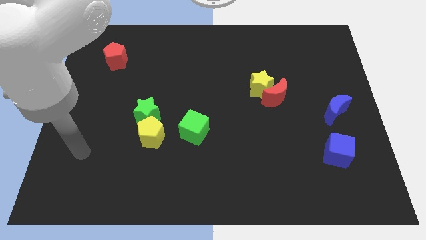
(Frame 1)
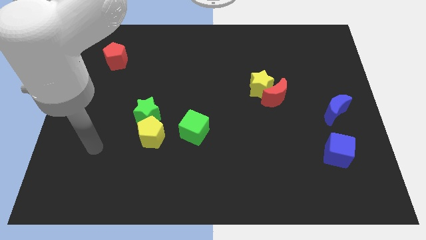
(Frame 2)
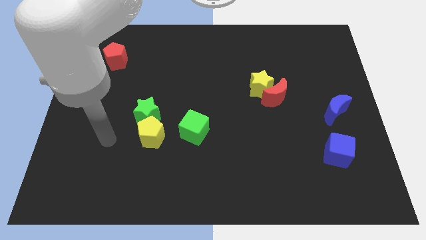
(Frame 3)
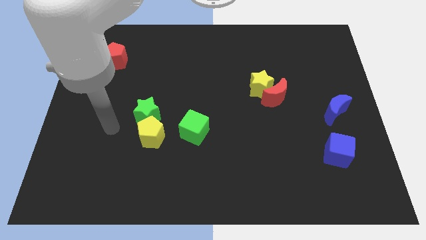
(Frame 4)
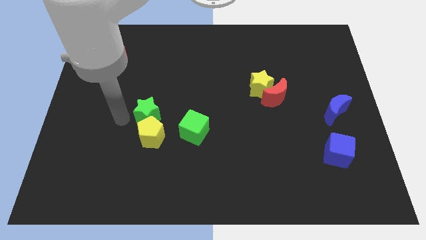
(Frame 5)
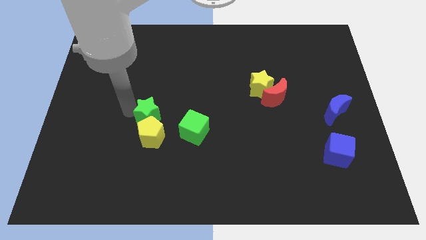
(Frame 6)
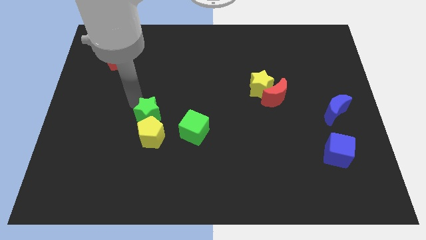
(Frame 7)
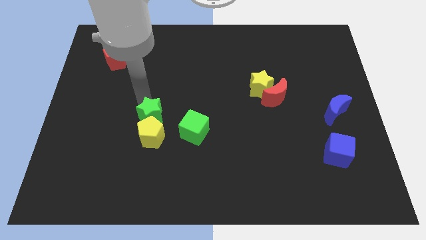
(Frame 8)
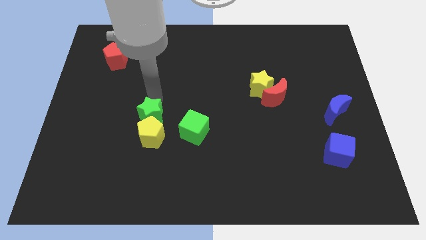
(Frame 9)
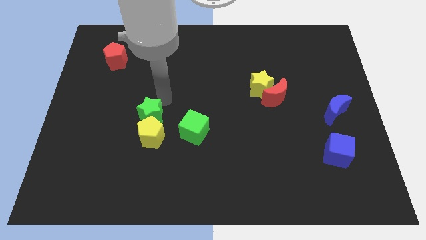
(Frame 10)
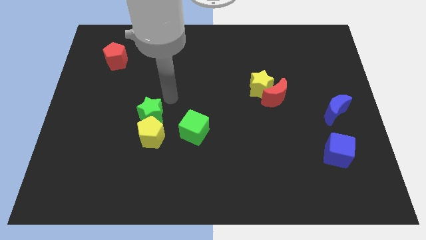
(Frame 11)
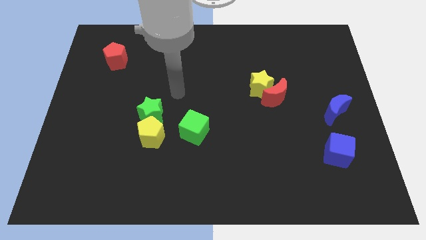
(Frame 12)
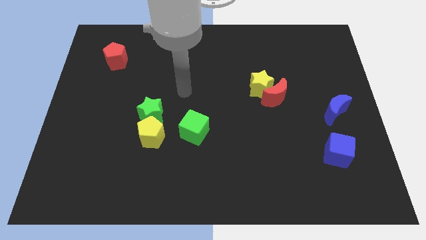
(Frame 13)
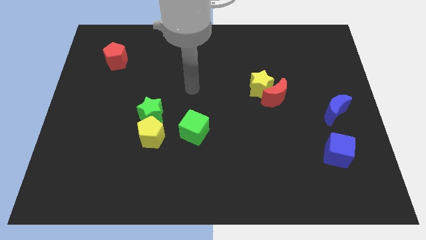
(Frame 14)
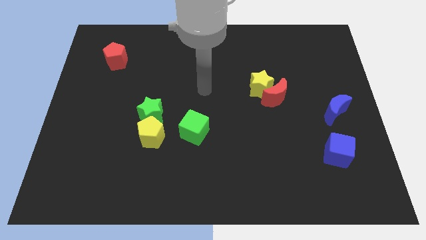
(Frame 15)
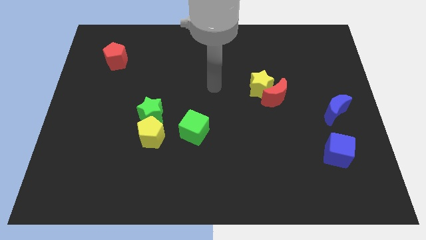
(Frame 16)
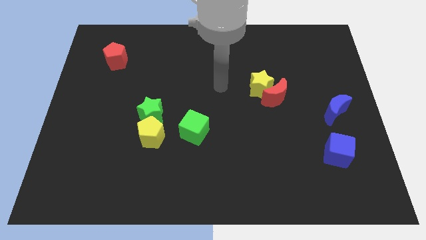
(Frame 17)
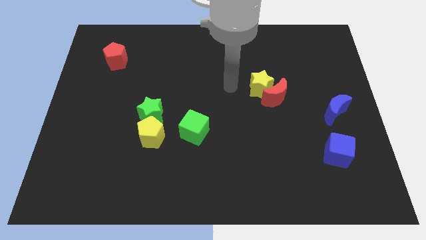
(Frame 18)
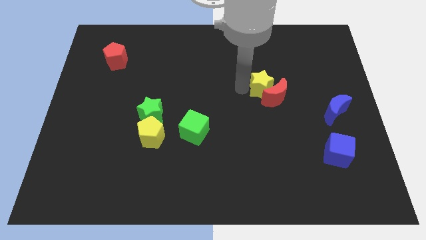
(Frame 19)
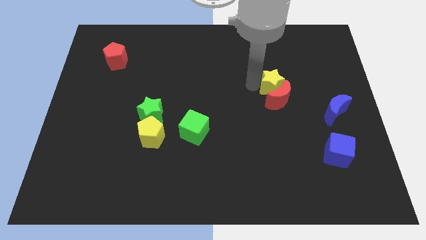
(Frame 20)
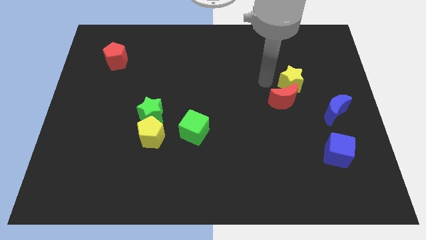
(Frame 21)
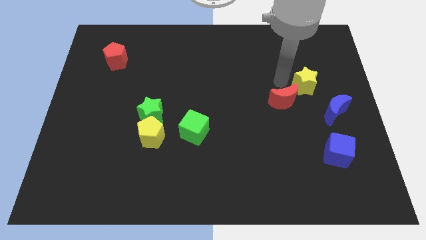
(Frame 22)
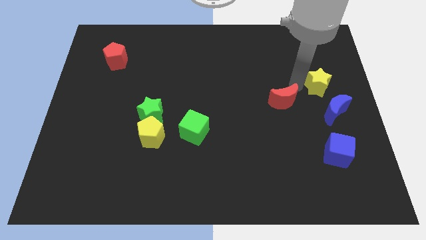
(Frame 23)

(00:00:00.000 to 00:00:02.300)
pull the red moon apart from the yellow star

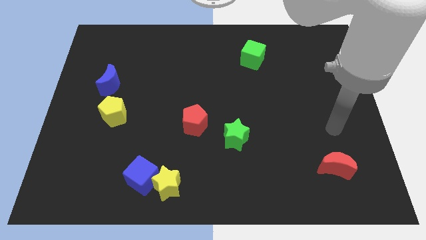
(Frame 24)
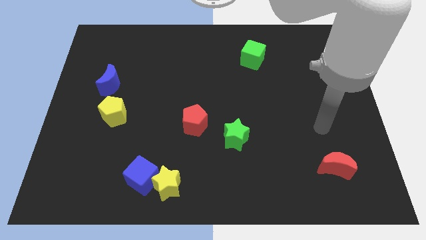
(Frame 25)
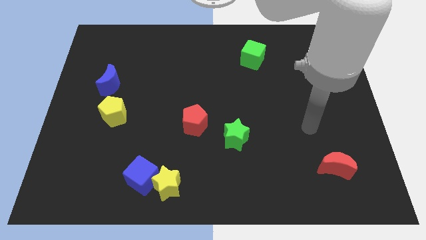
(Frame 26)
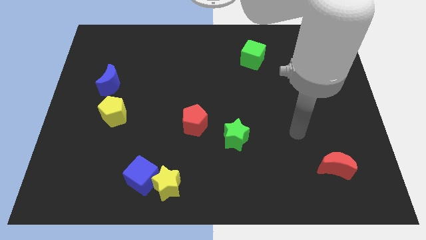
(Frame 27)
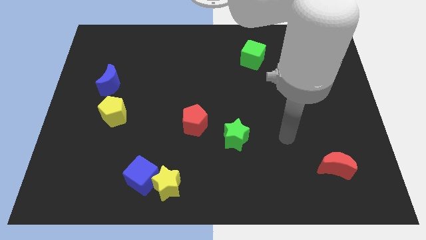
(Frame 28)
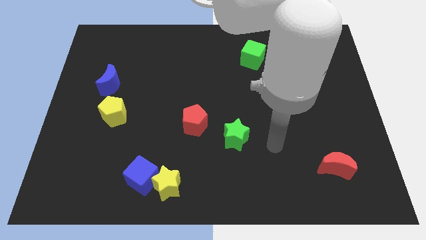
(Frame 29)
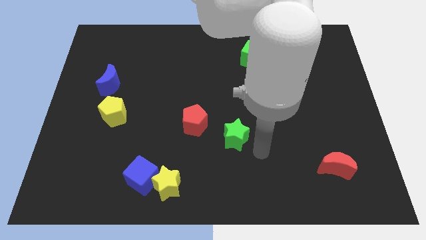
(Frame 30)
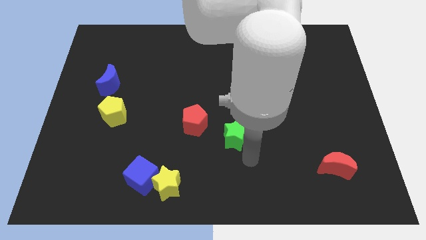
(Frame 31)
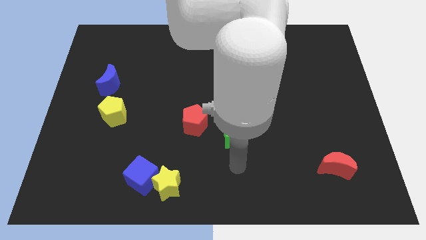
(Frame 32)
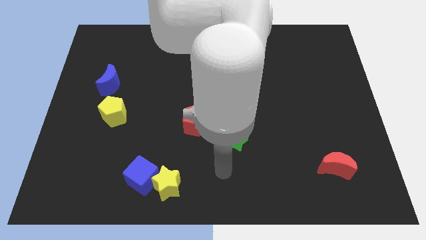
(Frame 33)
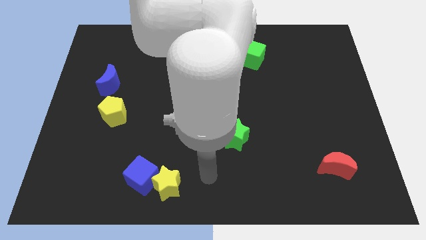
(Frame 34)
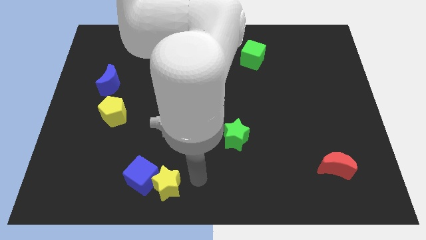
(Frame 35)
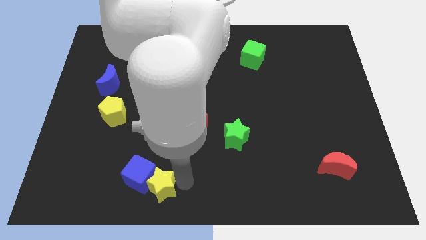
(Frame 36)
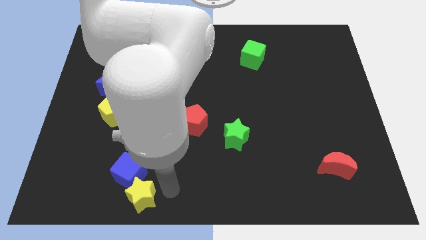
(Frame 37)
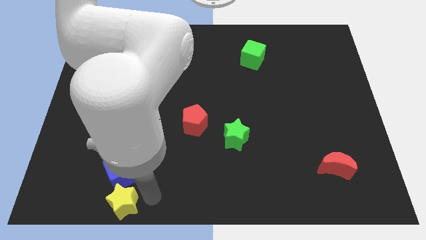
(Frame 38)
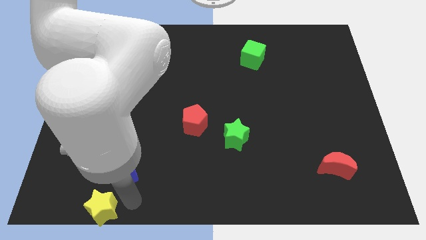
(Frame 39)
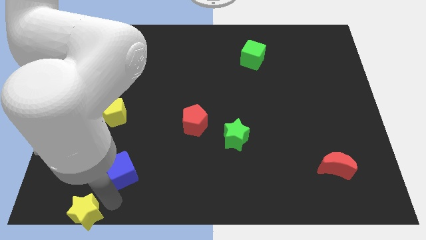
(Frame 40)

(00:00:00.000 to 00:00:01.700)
pull the blue cube apart from the yellow star

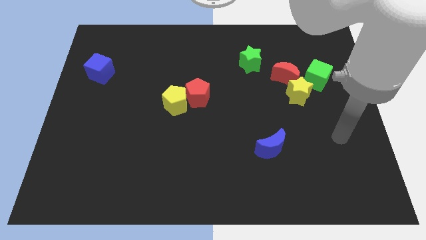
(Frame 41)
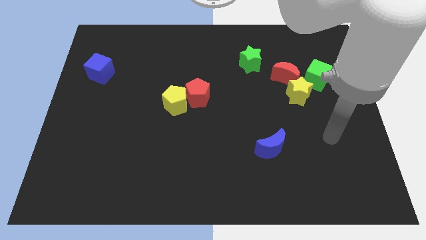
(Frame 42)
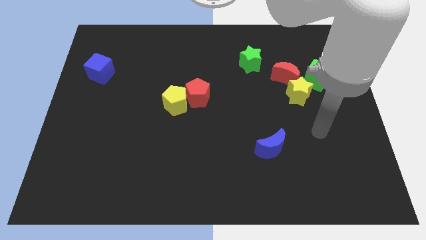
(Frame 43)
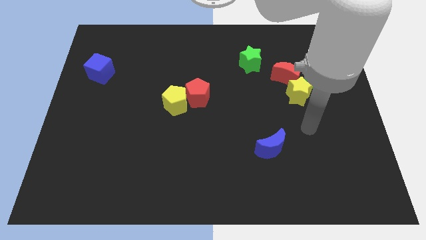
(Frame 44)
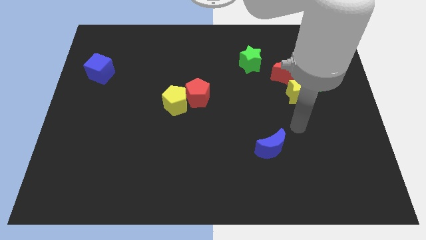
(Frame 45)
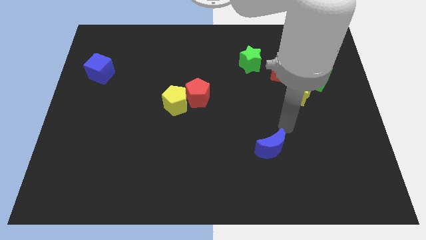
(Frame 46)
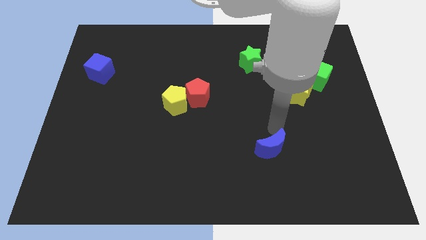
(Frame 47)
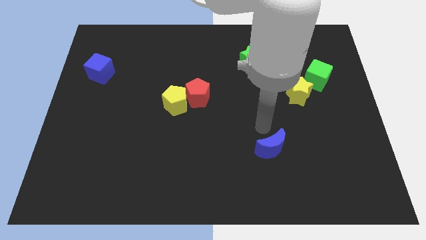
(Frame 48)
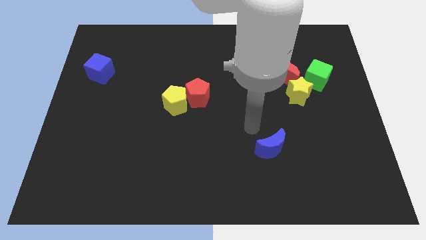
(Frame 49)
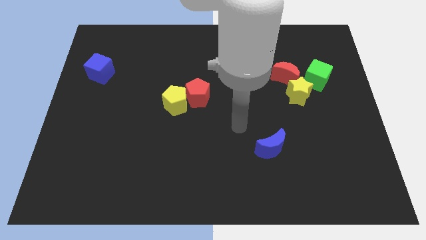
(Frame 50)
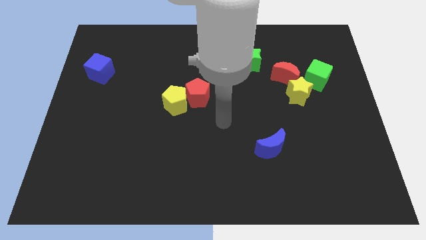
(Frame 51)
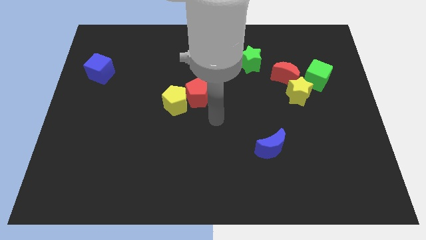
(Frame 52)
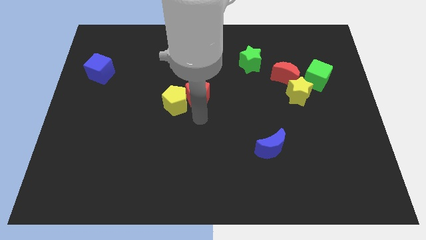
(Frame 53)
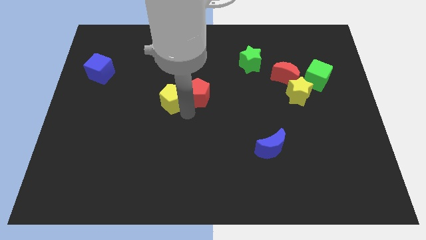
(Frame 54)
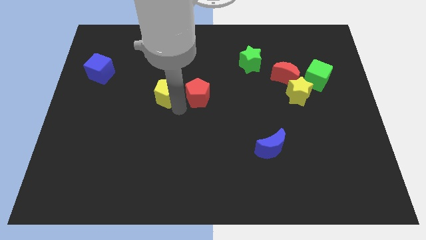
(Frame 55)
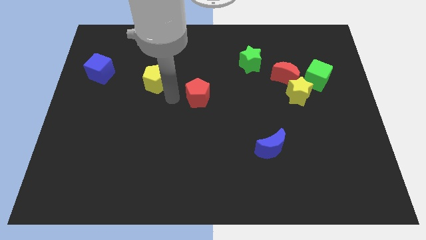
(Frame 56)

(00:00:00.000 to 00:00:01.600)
separate the red pentagon from the yellow pentagon

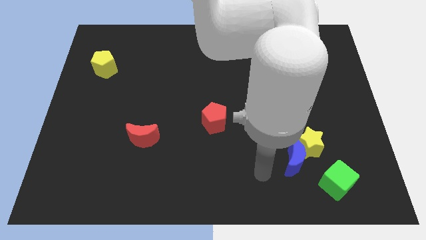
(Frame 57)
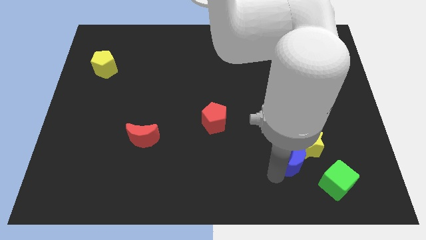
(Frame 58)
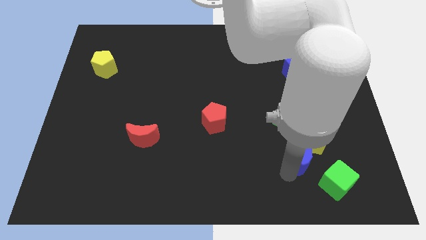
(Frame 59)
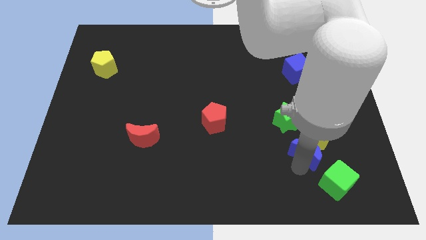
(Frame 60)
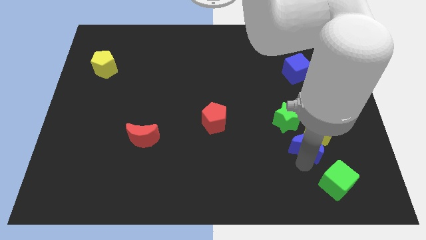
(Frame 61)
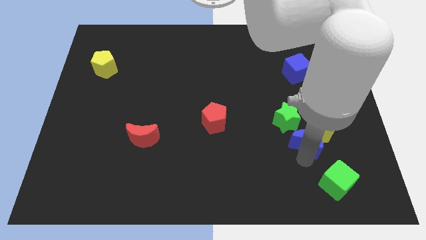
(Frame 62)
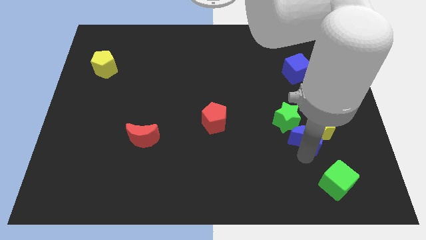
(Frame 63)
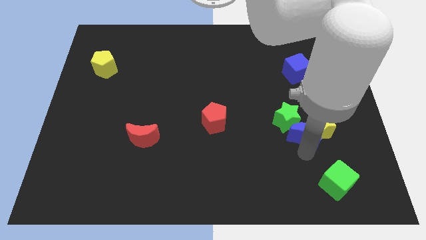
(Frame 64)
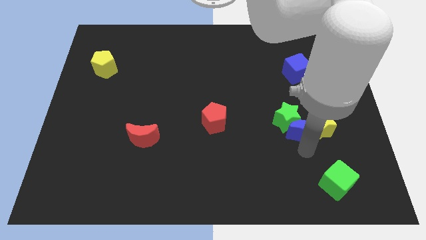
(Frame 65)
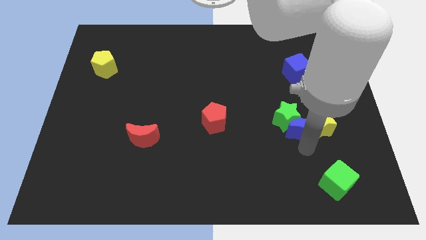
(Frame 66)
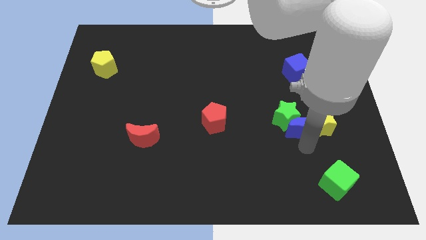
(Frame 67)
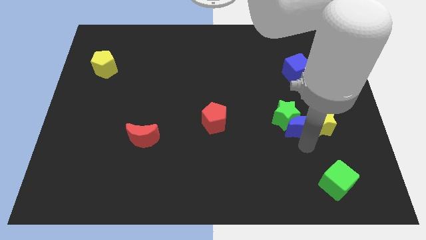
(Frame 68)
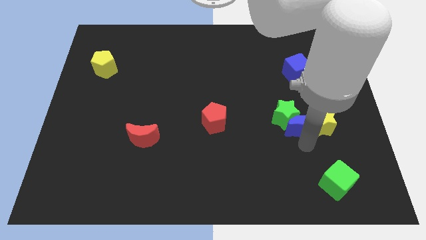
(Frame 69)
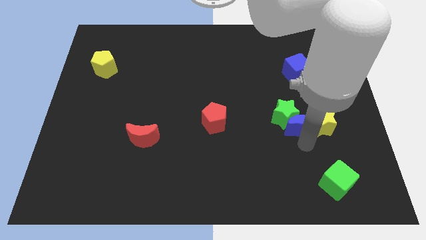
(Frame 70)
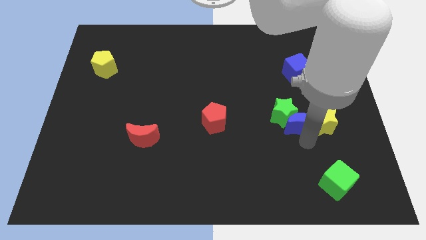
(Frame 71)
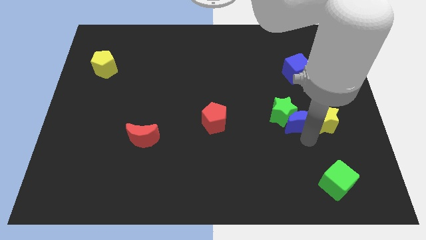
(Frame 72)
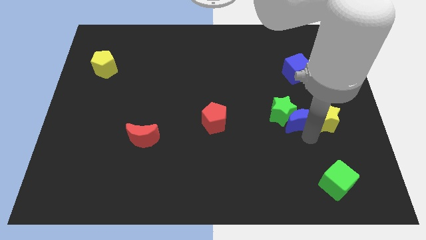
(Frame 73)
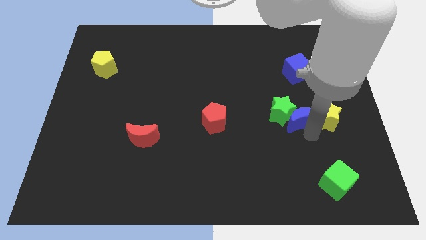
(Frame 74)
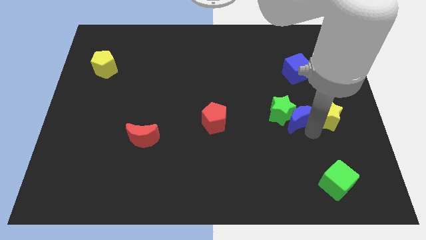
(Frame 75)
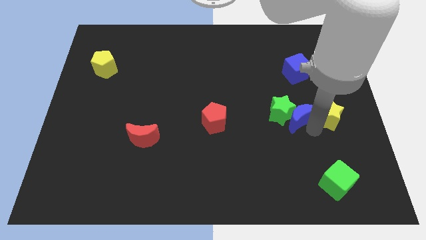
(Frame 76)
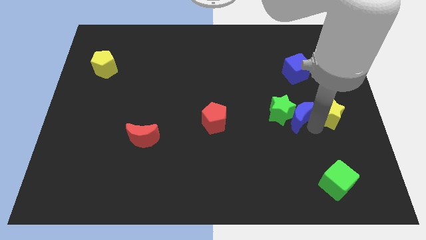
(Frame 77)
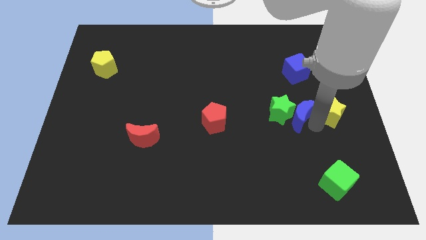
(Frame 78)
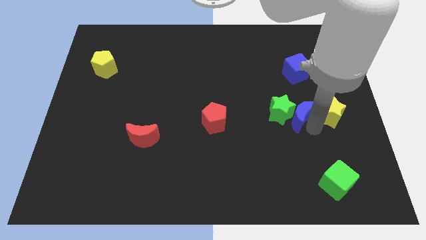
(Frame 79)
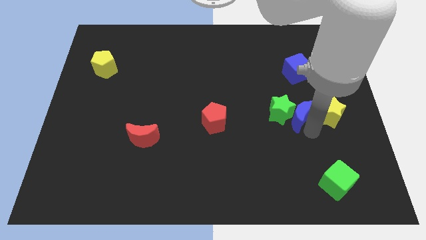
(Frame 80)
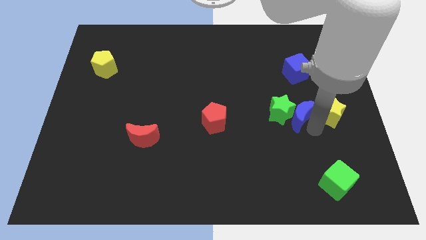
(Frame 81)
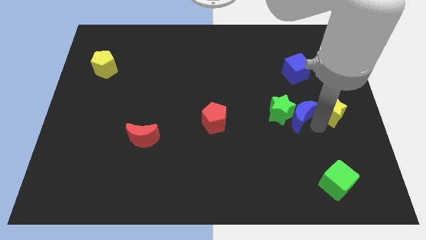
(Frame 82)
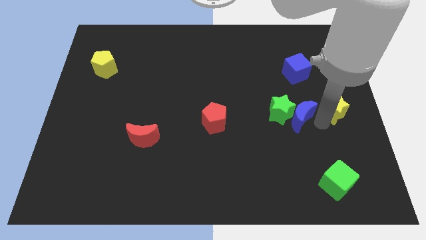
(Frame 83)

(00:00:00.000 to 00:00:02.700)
move the yellow star away from the blue moon, green star, and green cube

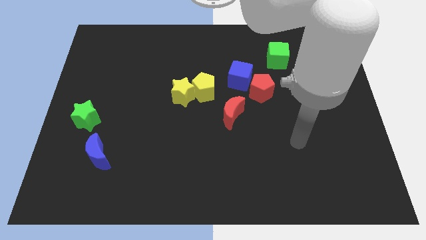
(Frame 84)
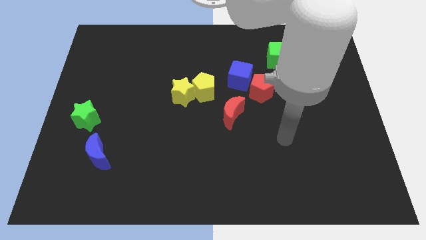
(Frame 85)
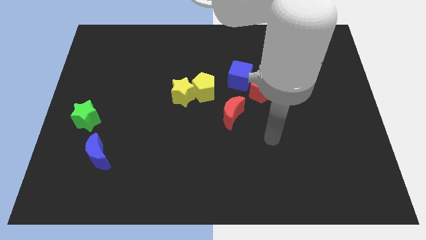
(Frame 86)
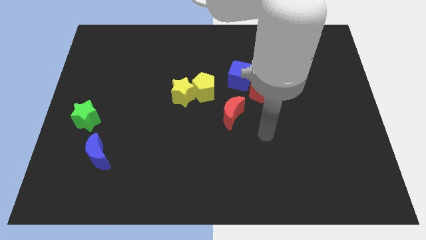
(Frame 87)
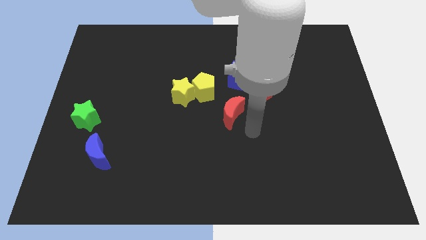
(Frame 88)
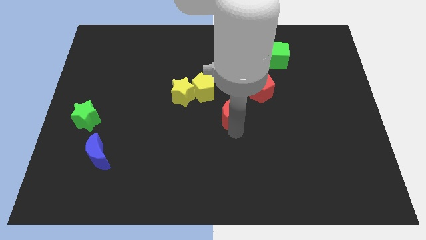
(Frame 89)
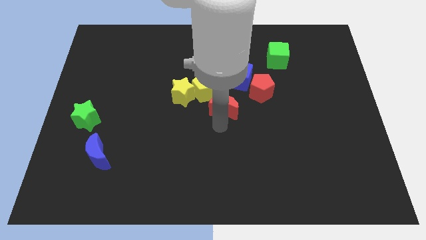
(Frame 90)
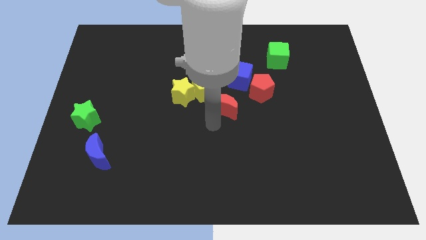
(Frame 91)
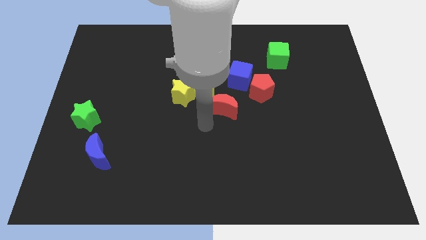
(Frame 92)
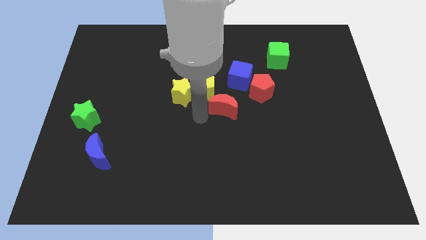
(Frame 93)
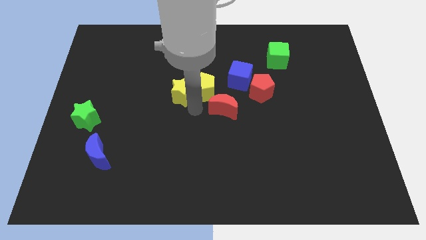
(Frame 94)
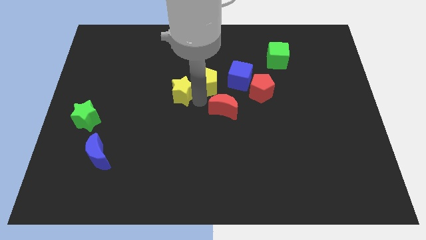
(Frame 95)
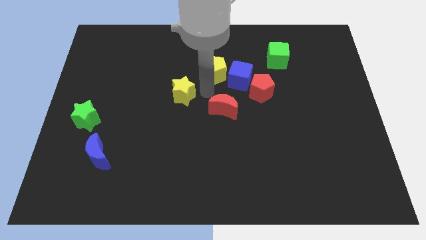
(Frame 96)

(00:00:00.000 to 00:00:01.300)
move the yellow star away from the yellow pentagon
